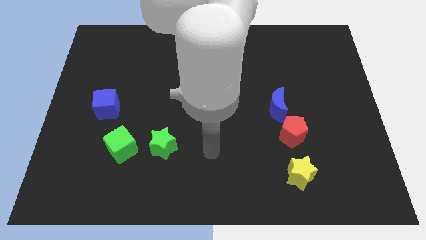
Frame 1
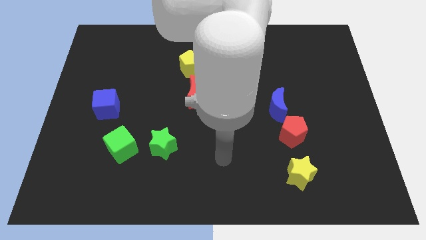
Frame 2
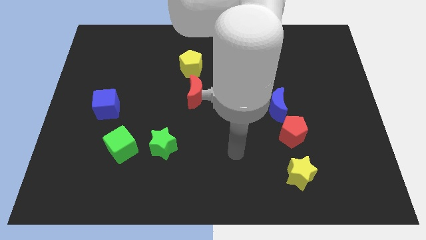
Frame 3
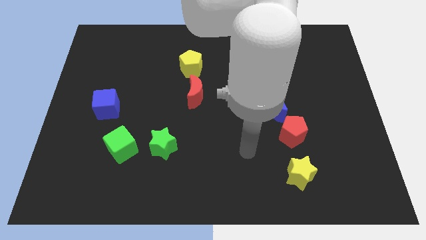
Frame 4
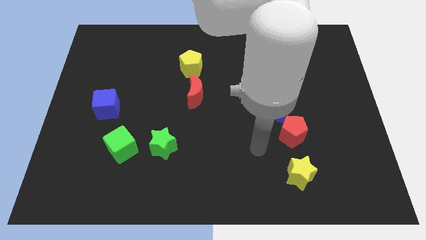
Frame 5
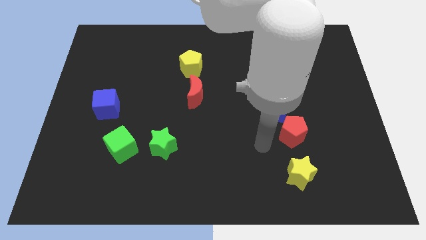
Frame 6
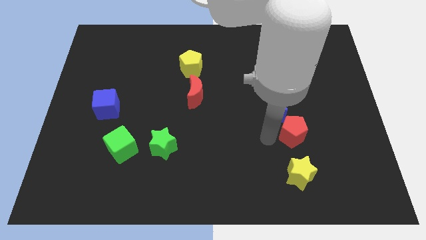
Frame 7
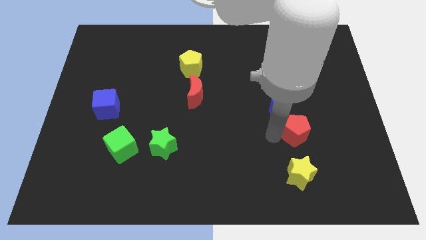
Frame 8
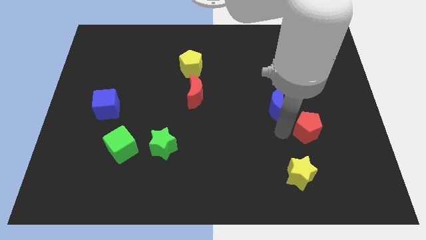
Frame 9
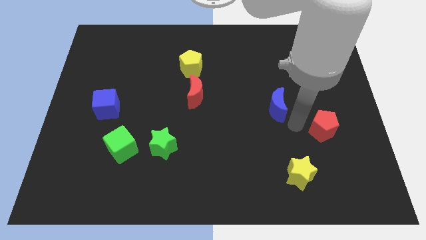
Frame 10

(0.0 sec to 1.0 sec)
separate the blue moon from the red pentagon

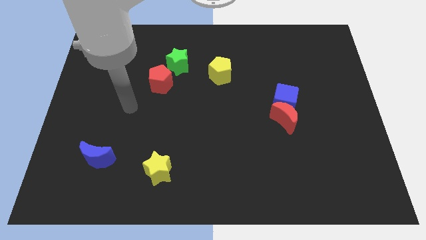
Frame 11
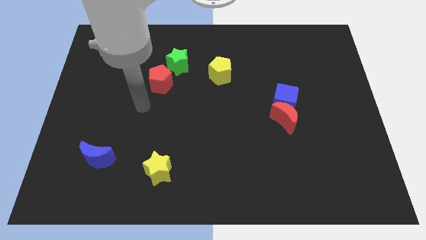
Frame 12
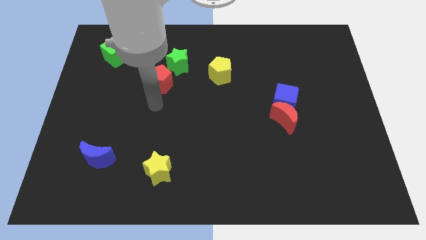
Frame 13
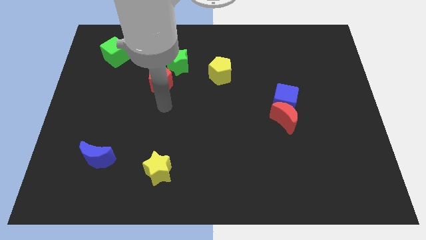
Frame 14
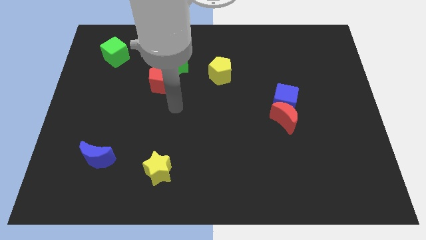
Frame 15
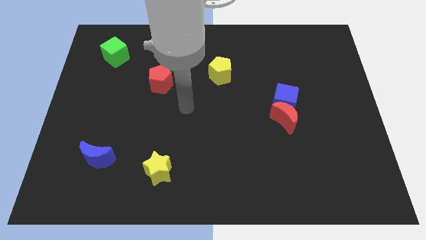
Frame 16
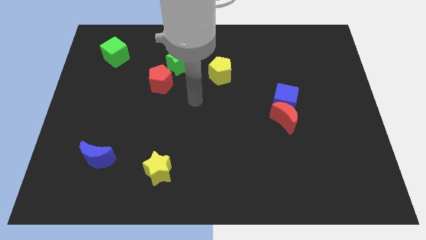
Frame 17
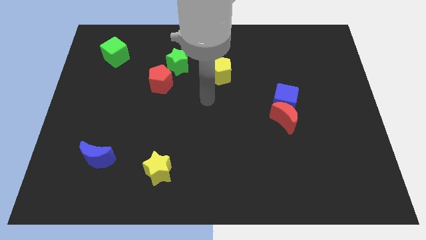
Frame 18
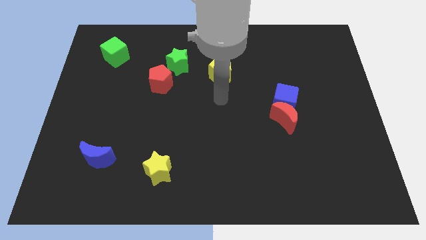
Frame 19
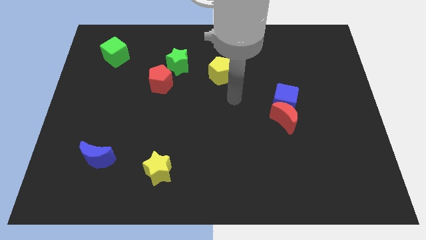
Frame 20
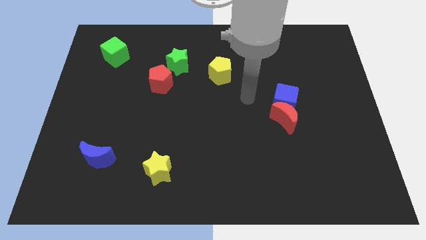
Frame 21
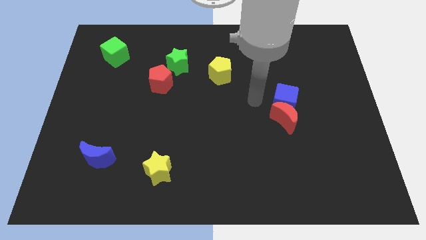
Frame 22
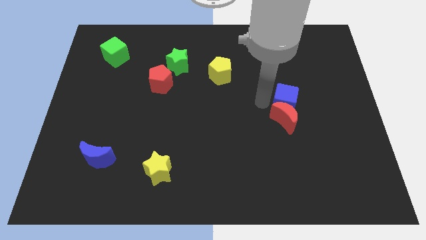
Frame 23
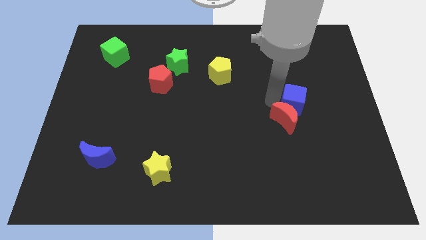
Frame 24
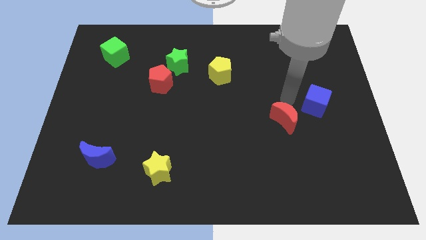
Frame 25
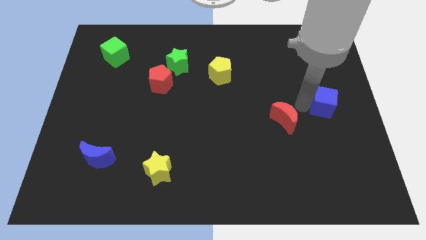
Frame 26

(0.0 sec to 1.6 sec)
separate the red moon from the blue cube

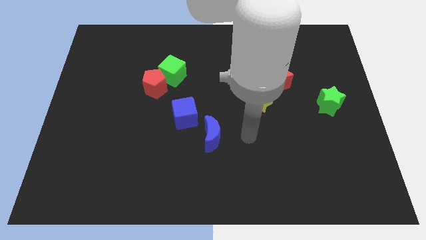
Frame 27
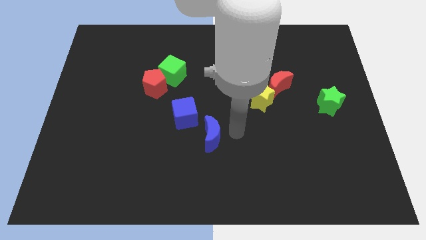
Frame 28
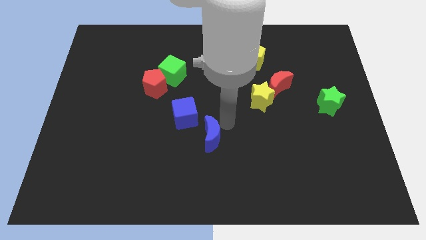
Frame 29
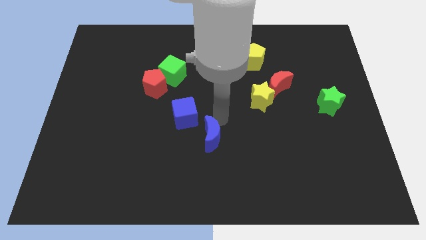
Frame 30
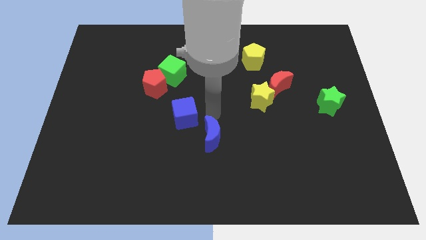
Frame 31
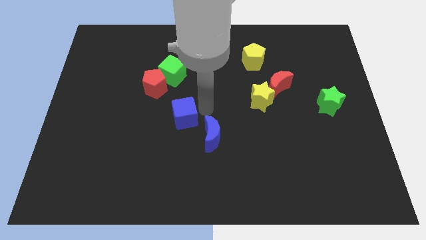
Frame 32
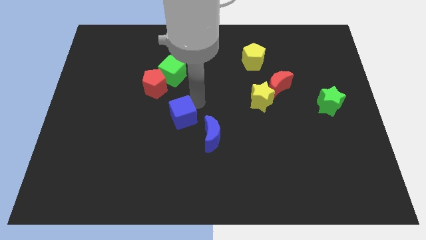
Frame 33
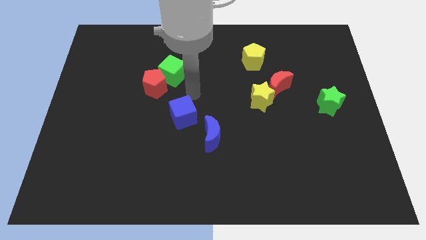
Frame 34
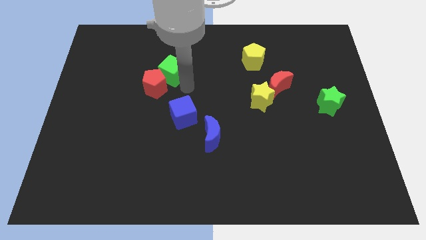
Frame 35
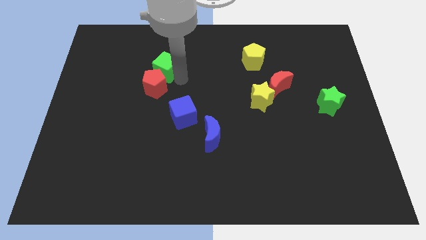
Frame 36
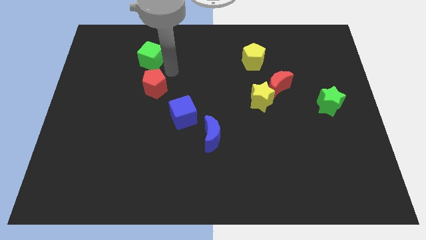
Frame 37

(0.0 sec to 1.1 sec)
pull the red pentagon apart from the green cube

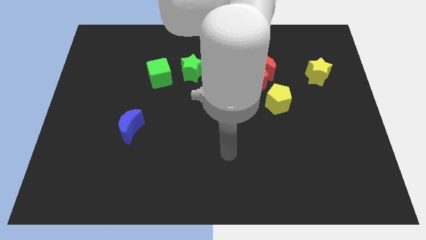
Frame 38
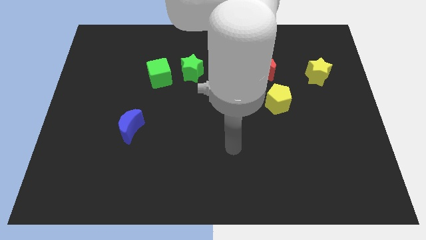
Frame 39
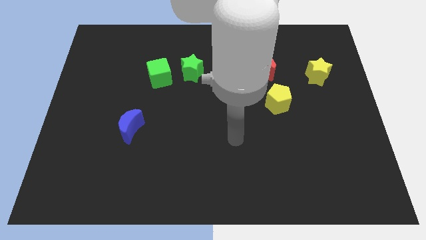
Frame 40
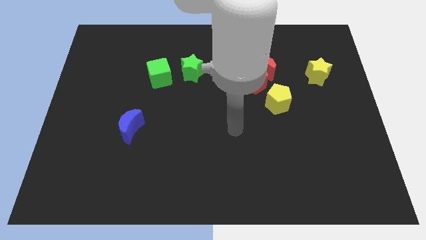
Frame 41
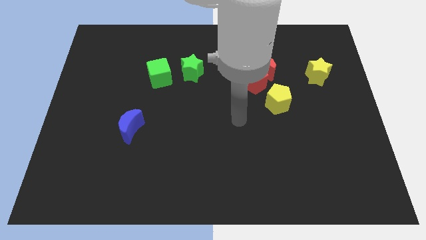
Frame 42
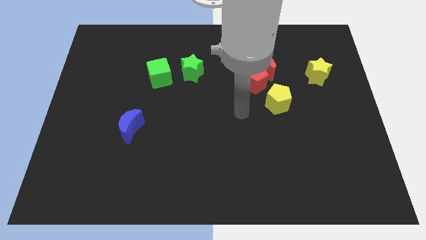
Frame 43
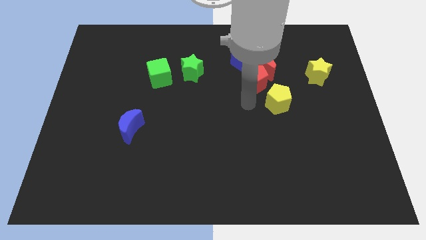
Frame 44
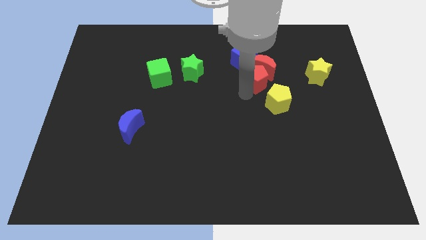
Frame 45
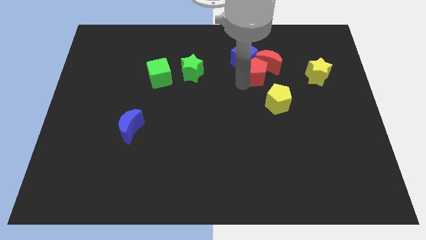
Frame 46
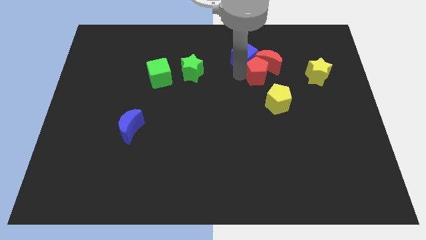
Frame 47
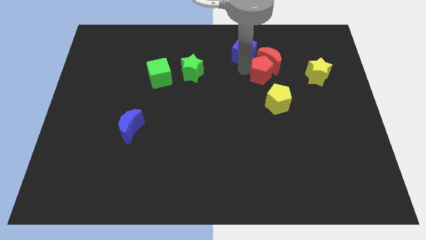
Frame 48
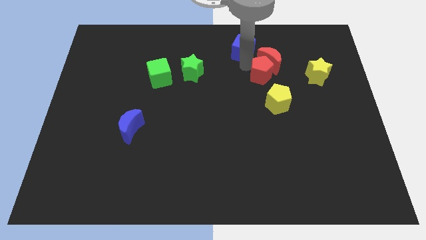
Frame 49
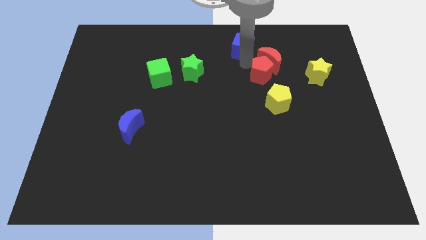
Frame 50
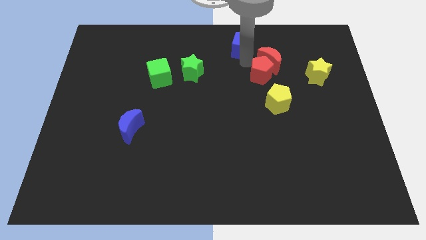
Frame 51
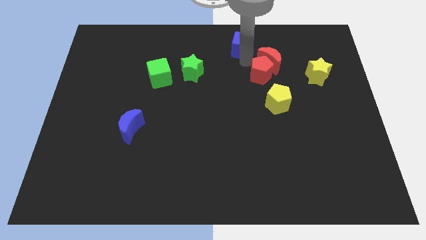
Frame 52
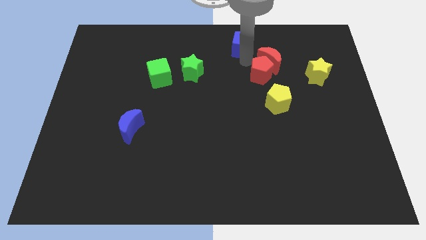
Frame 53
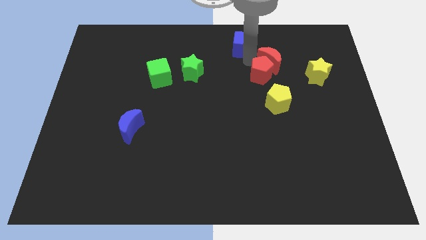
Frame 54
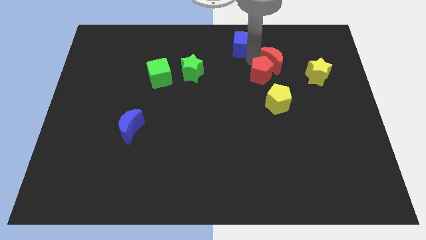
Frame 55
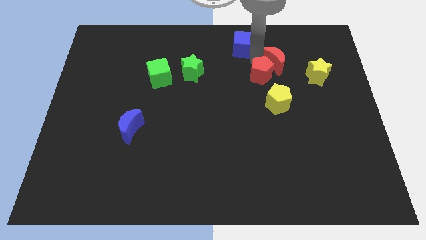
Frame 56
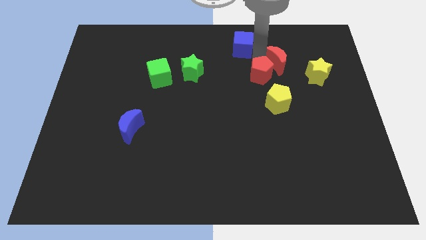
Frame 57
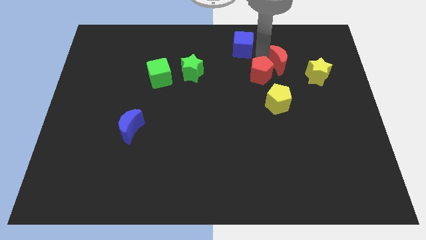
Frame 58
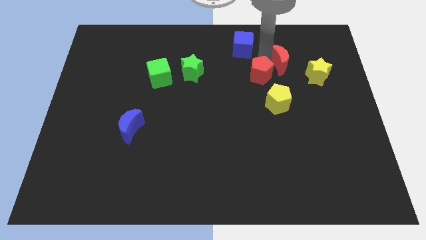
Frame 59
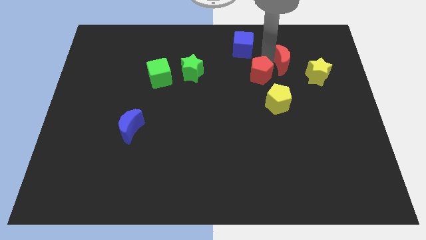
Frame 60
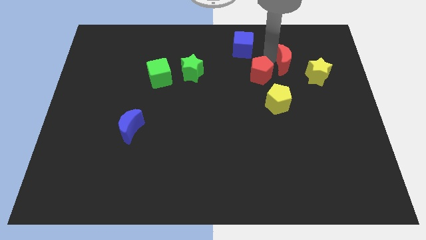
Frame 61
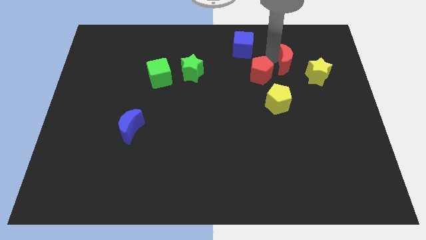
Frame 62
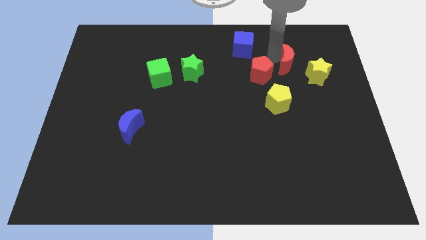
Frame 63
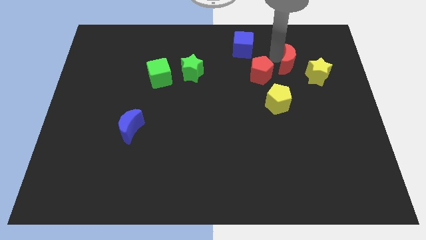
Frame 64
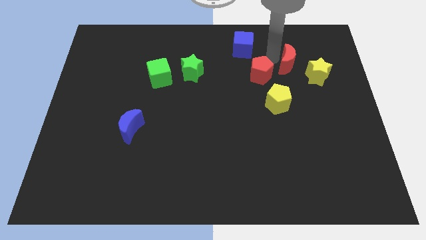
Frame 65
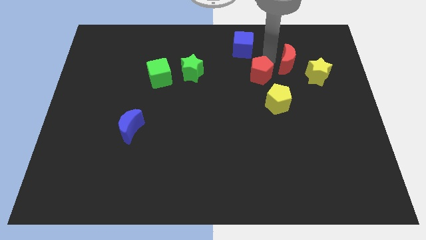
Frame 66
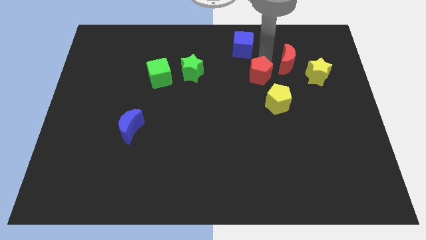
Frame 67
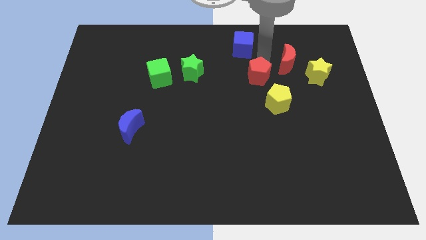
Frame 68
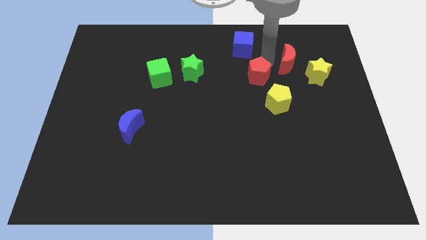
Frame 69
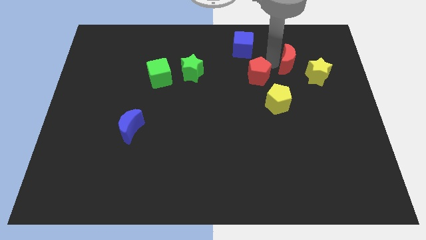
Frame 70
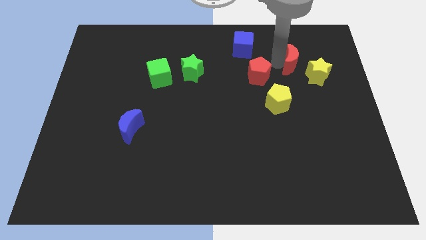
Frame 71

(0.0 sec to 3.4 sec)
separate the red moon from the red pentagon and blue cube

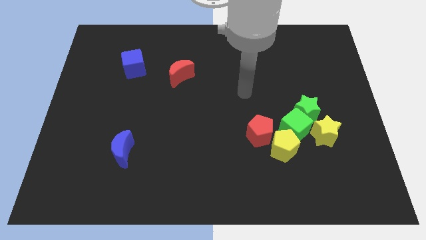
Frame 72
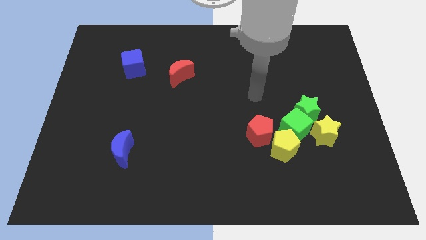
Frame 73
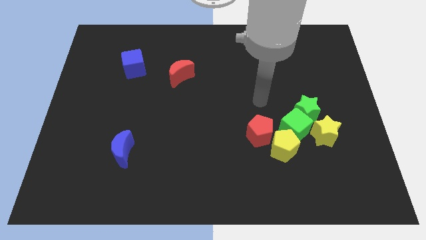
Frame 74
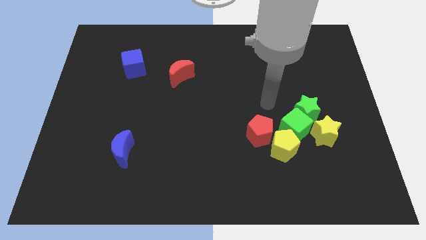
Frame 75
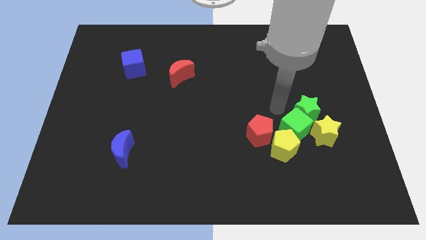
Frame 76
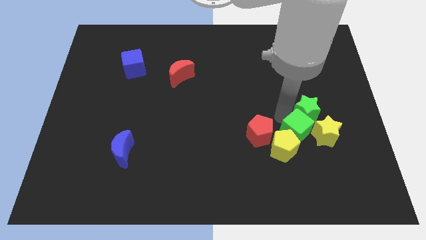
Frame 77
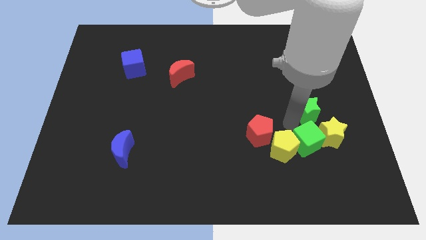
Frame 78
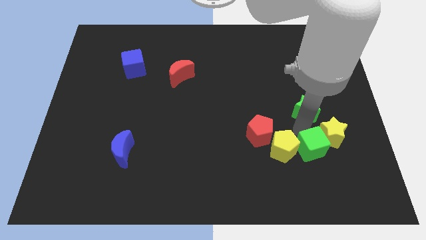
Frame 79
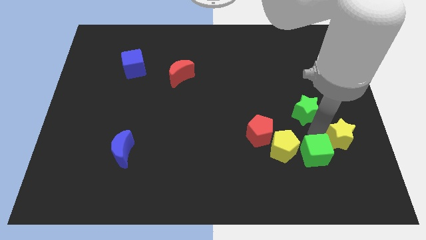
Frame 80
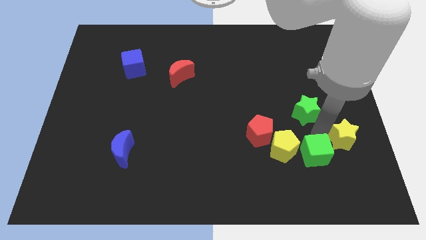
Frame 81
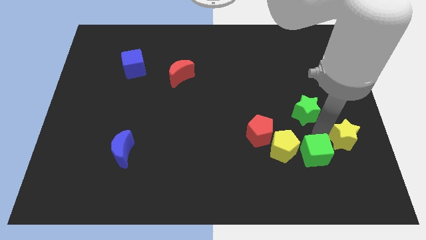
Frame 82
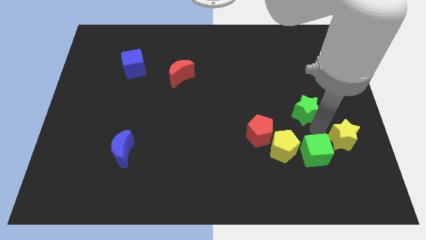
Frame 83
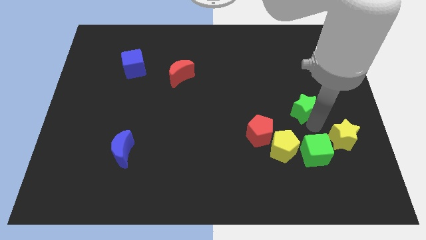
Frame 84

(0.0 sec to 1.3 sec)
pull the green star apart from the green cube and yellow star

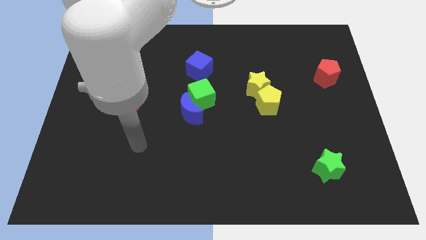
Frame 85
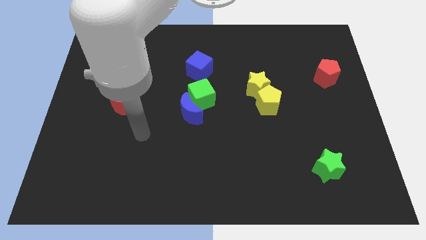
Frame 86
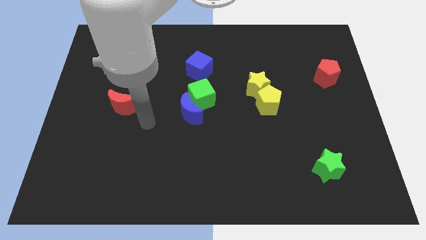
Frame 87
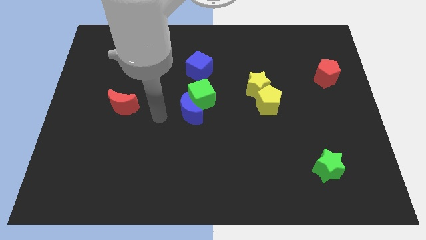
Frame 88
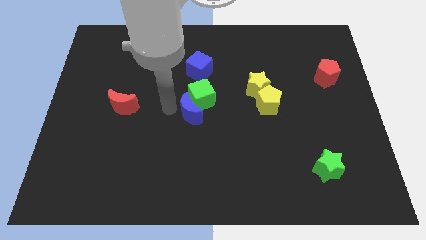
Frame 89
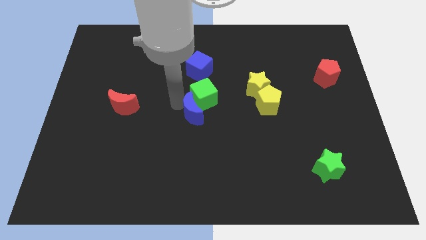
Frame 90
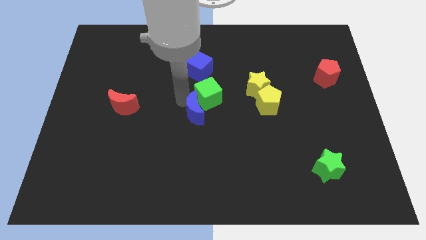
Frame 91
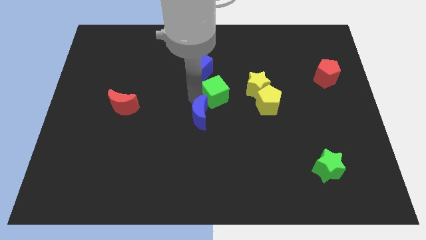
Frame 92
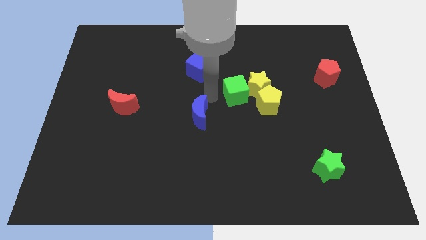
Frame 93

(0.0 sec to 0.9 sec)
move the blue moon away from the green cube
